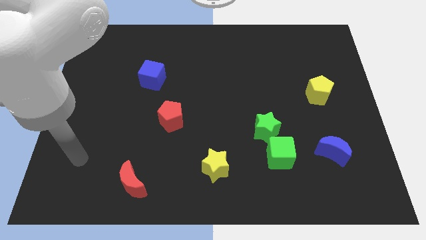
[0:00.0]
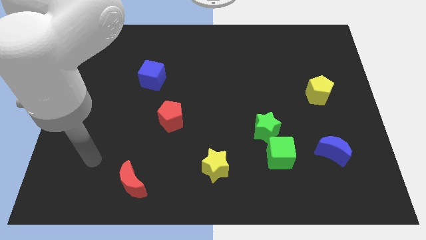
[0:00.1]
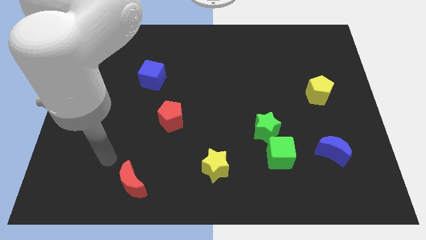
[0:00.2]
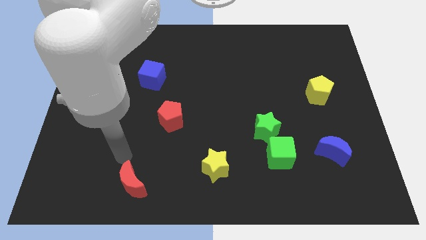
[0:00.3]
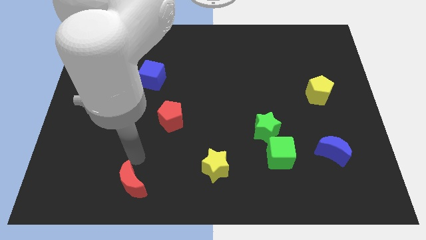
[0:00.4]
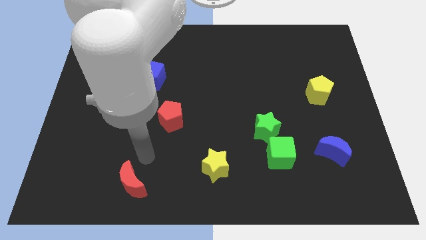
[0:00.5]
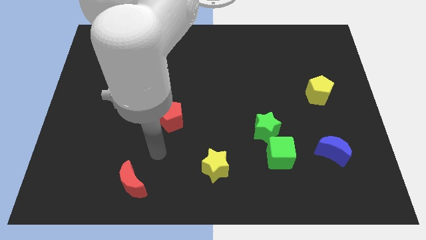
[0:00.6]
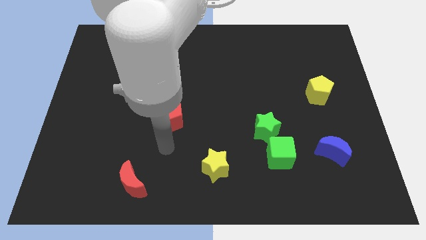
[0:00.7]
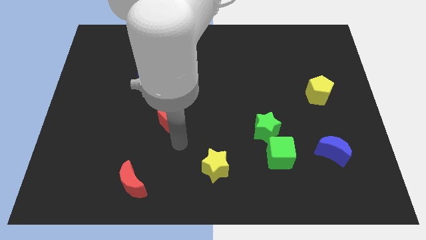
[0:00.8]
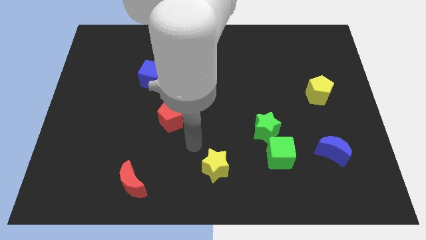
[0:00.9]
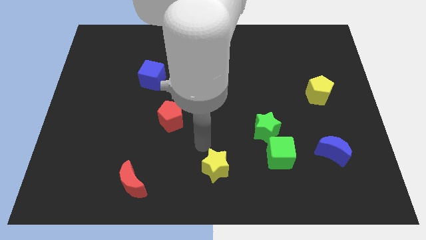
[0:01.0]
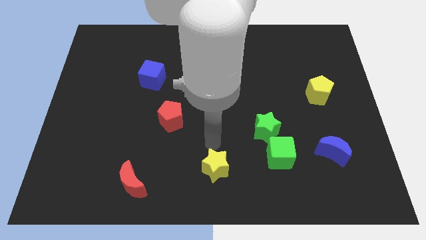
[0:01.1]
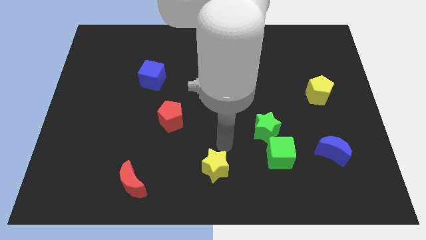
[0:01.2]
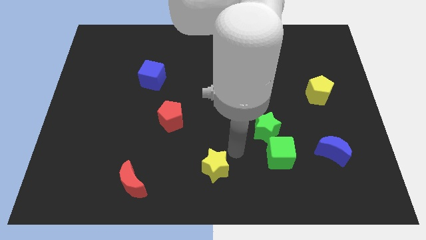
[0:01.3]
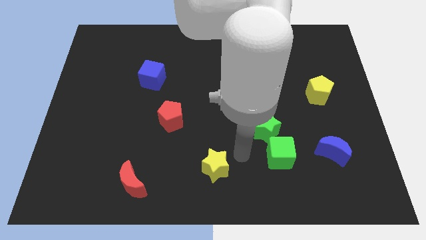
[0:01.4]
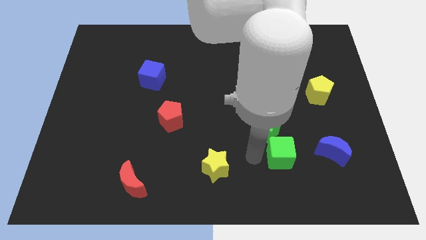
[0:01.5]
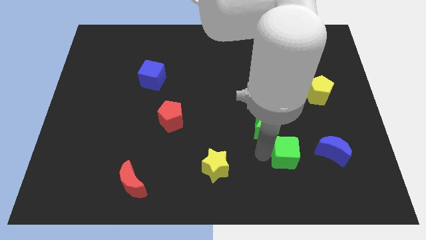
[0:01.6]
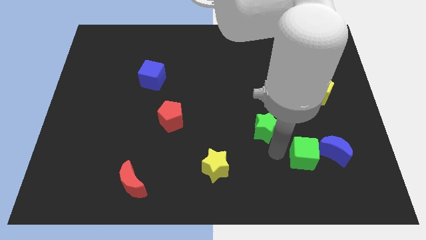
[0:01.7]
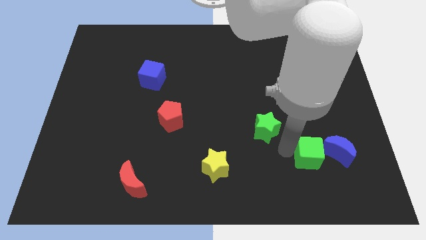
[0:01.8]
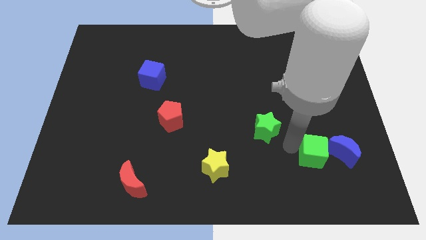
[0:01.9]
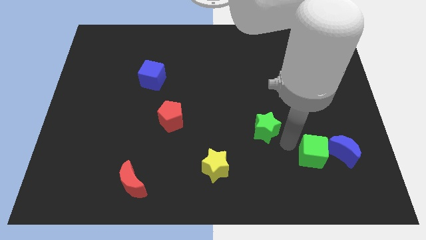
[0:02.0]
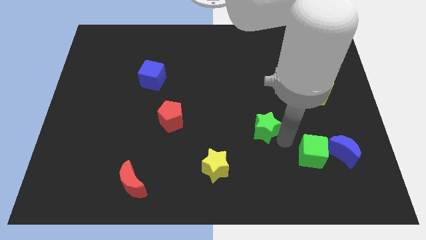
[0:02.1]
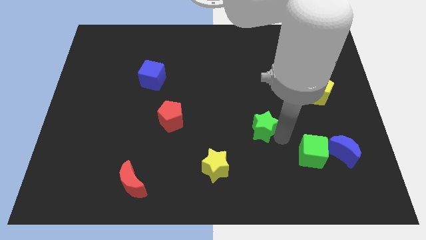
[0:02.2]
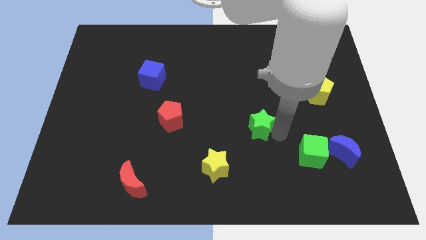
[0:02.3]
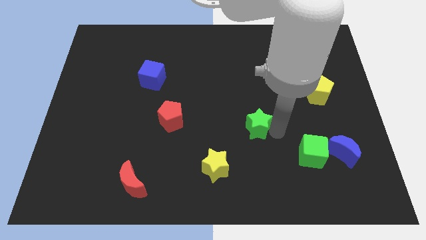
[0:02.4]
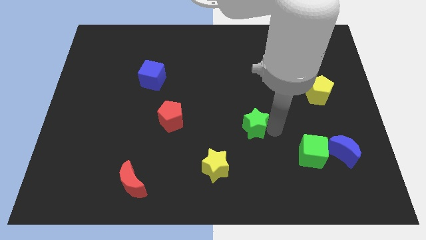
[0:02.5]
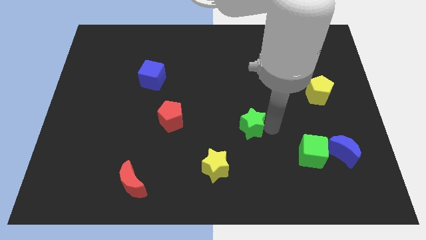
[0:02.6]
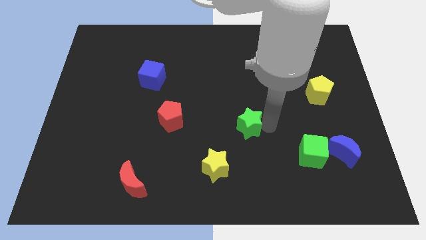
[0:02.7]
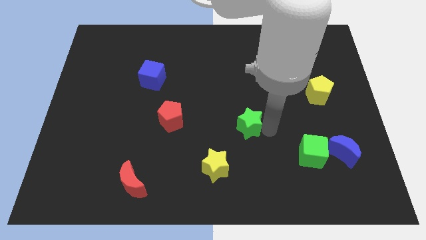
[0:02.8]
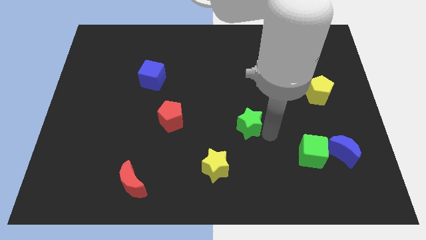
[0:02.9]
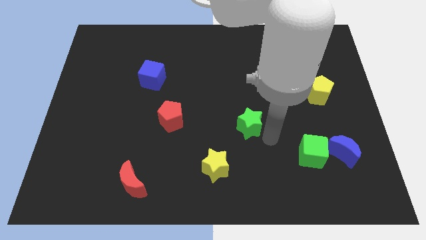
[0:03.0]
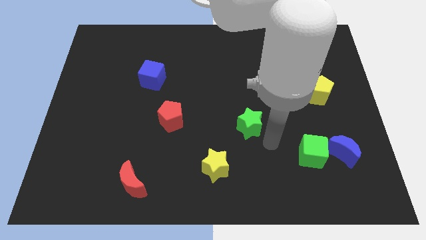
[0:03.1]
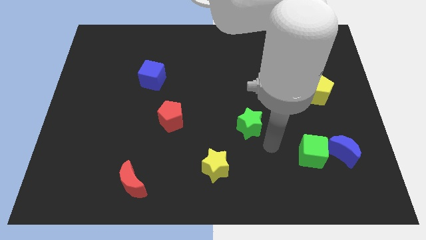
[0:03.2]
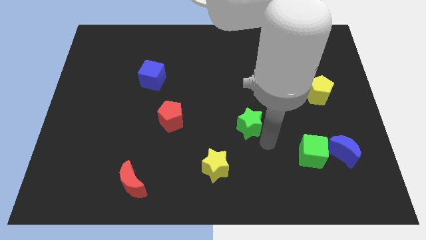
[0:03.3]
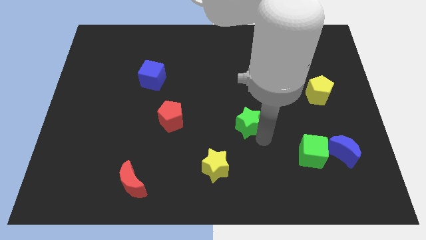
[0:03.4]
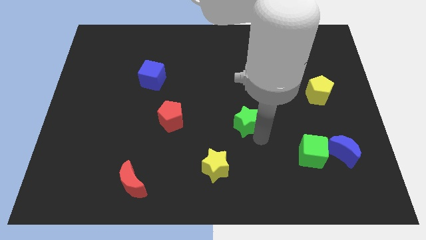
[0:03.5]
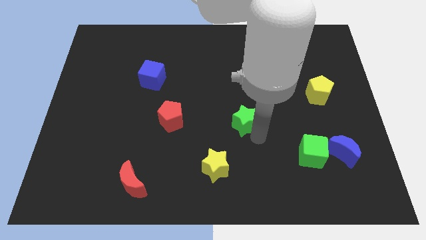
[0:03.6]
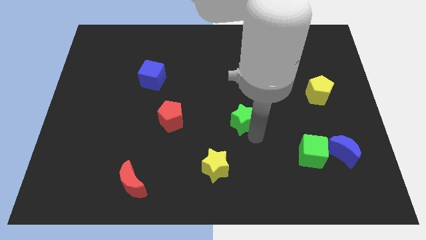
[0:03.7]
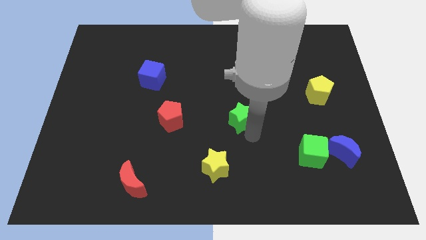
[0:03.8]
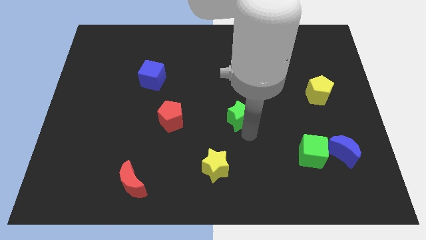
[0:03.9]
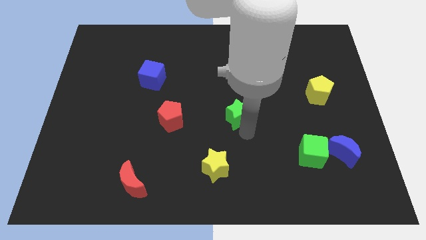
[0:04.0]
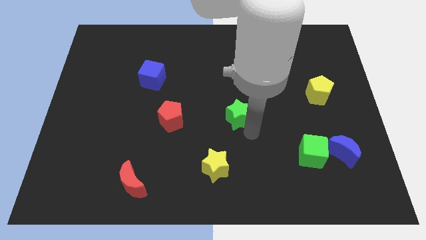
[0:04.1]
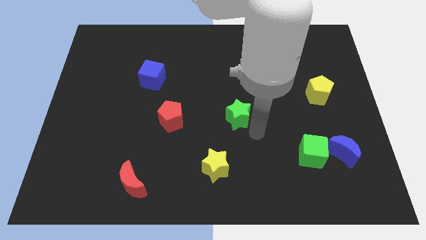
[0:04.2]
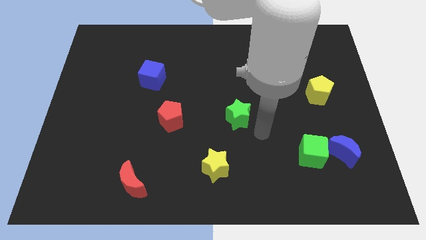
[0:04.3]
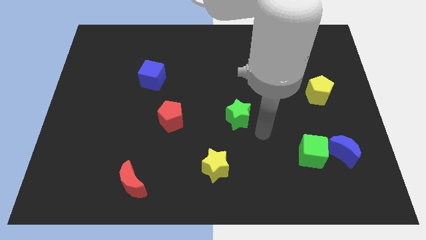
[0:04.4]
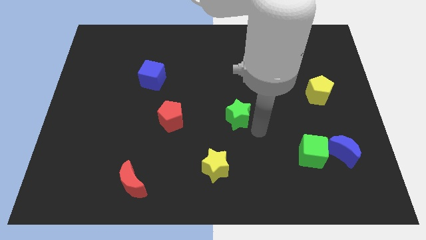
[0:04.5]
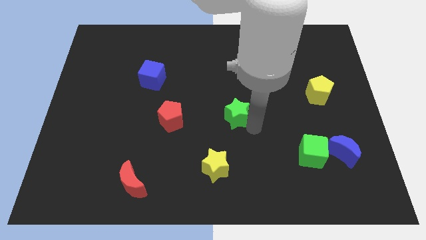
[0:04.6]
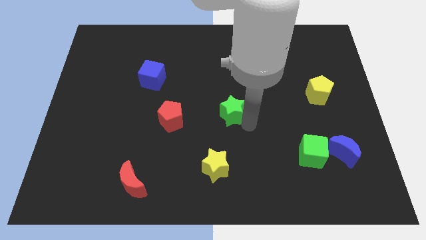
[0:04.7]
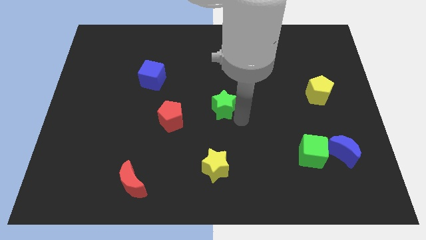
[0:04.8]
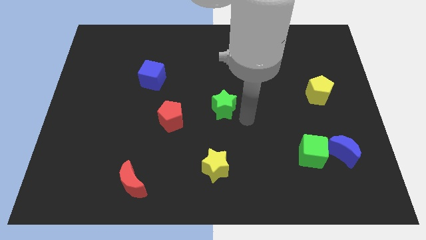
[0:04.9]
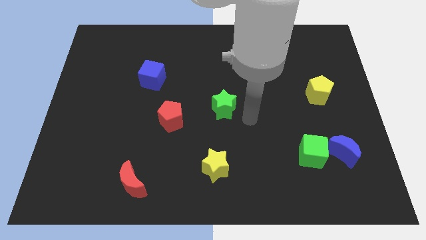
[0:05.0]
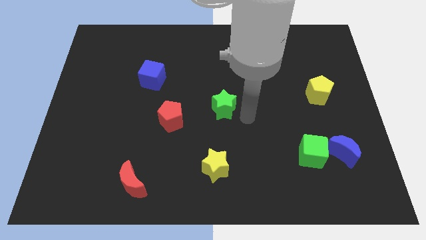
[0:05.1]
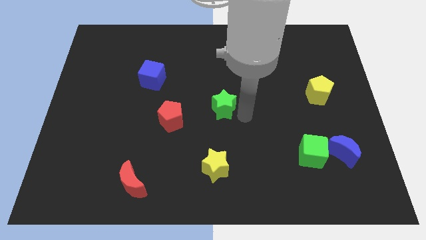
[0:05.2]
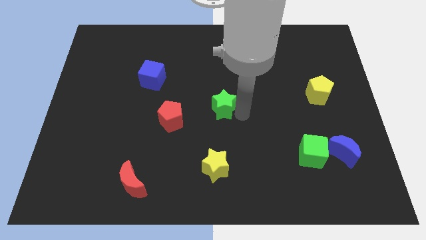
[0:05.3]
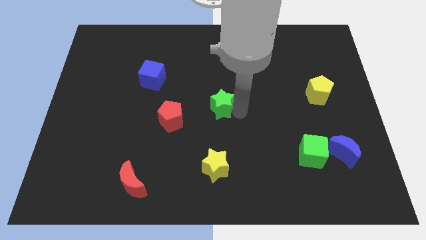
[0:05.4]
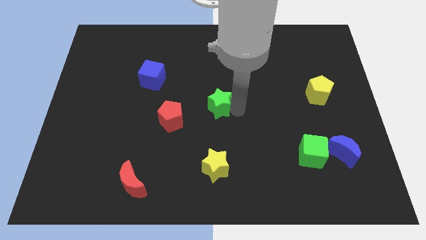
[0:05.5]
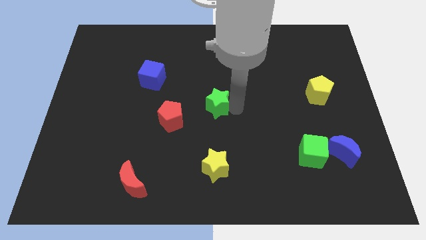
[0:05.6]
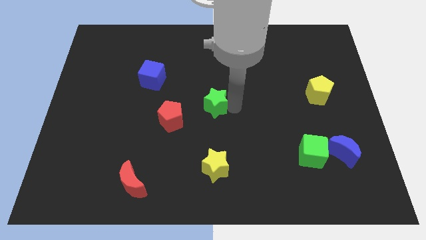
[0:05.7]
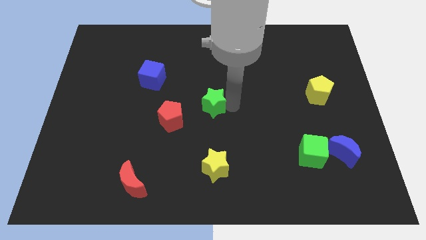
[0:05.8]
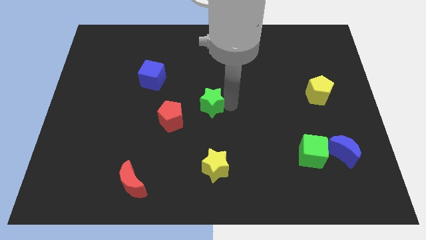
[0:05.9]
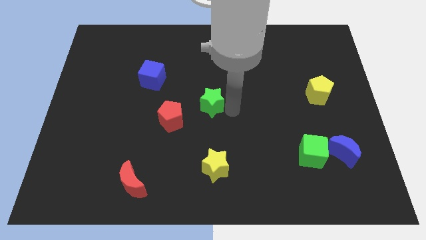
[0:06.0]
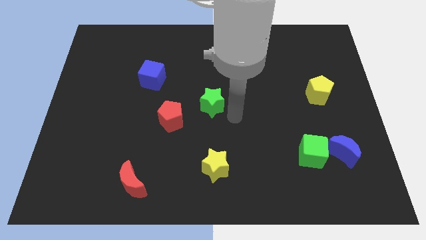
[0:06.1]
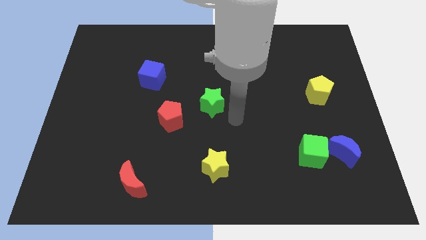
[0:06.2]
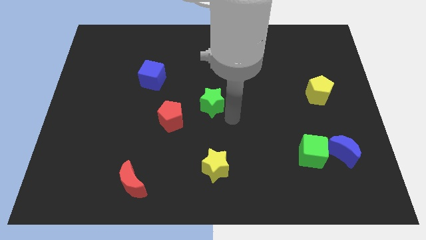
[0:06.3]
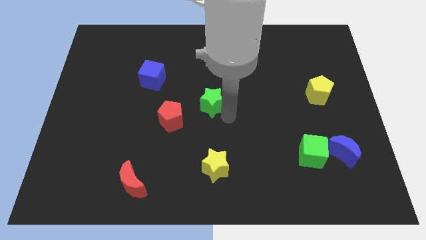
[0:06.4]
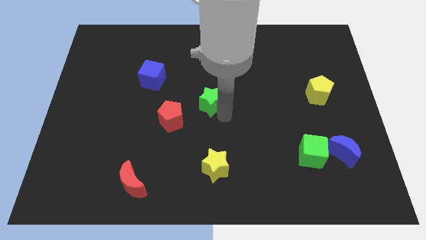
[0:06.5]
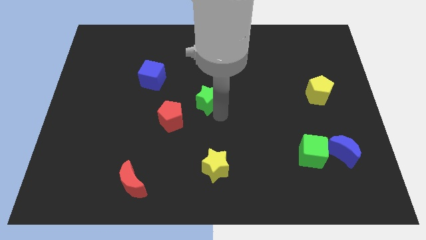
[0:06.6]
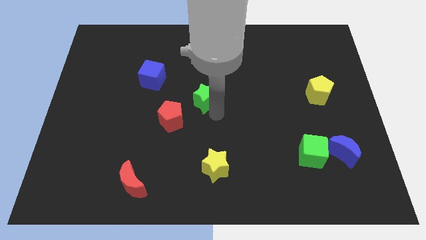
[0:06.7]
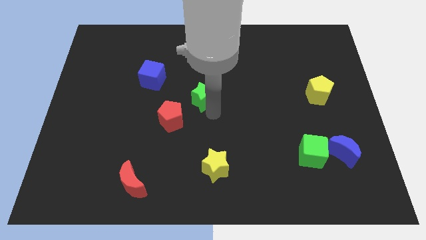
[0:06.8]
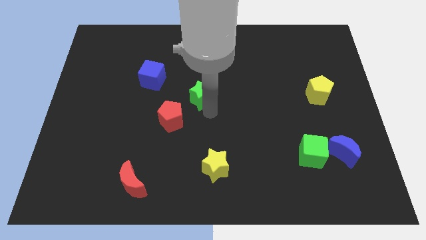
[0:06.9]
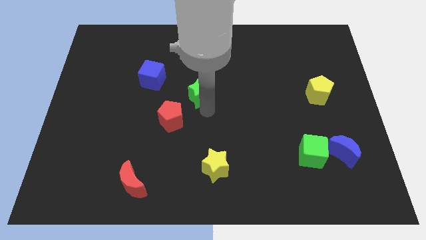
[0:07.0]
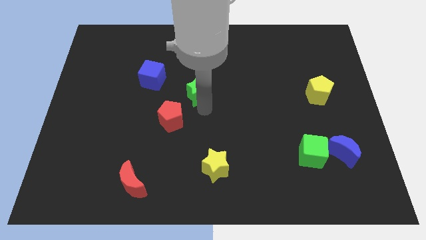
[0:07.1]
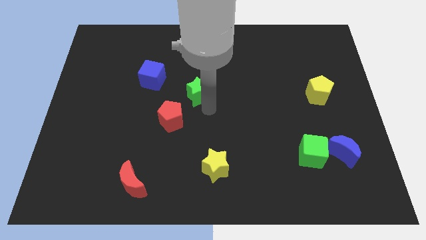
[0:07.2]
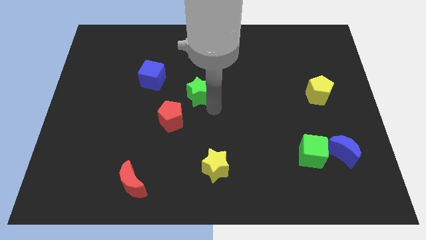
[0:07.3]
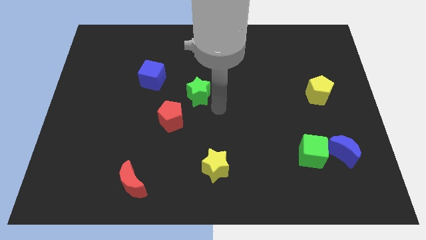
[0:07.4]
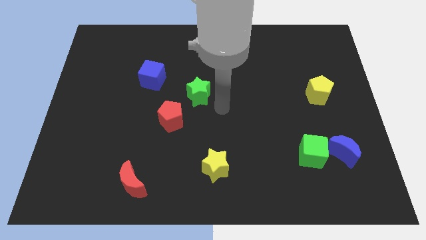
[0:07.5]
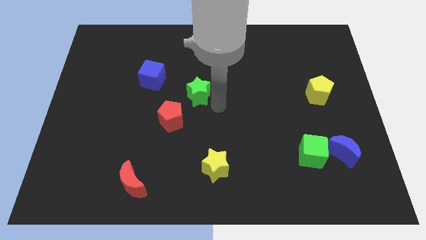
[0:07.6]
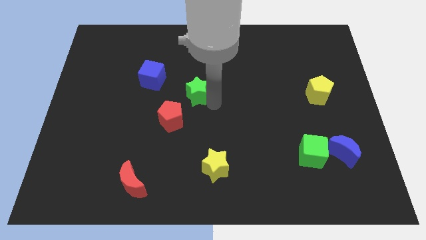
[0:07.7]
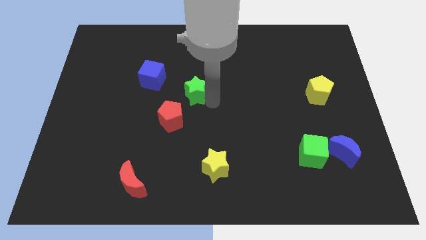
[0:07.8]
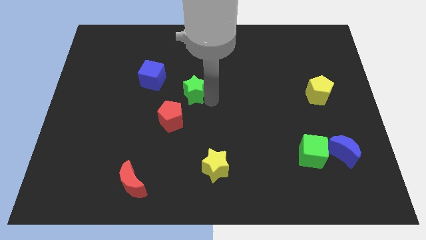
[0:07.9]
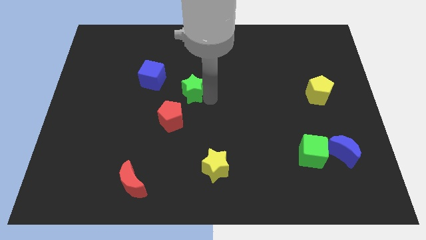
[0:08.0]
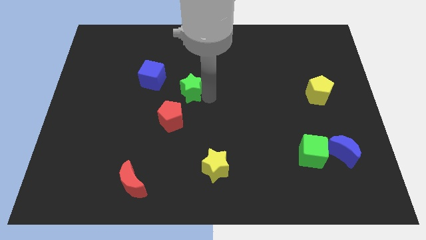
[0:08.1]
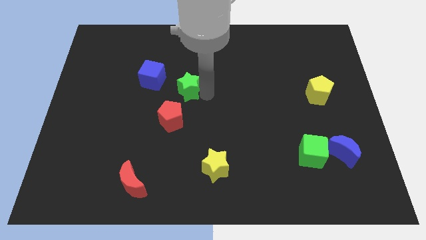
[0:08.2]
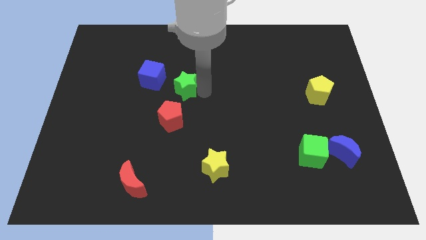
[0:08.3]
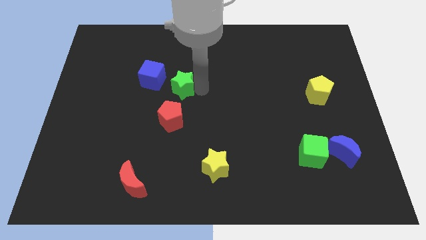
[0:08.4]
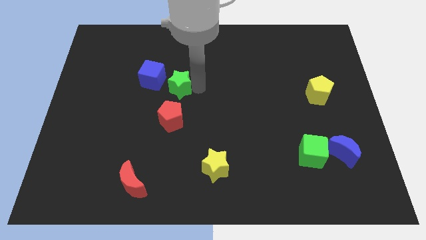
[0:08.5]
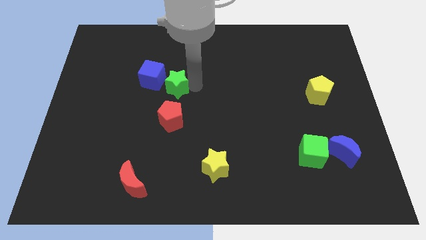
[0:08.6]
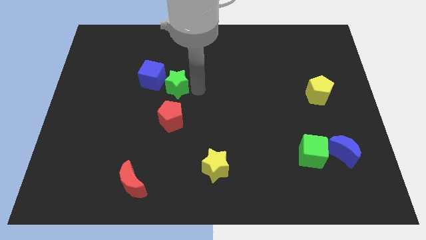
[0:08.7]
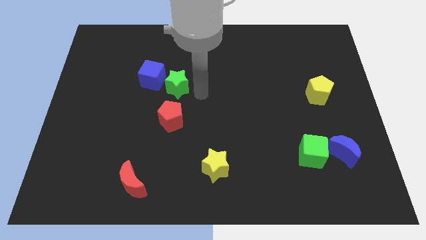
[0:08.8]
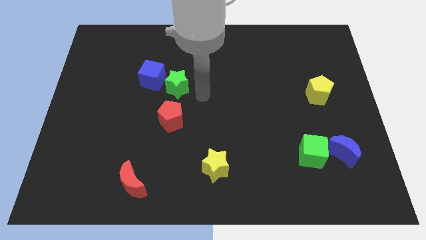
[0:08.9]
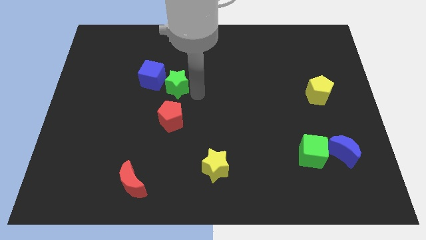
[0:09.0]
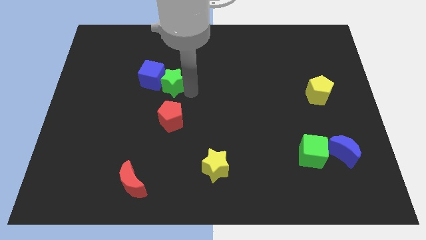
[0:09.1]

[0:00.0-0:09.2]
push the green star close to the blue cube
